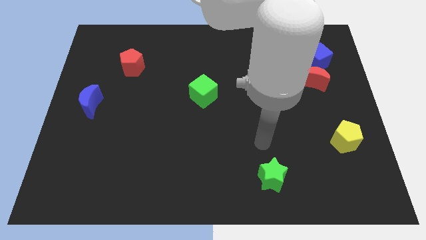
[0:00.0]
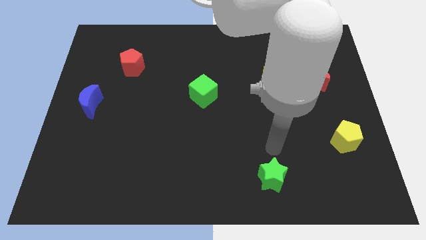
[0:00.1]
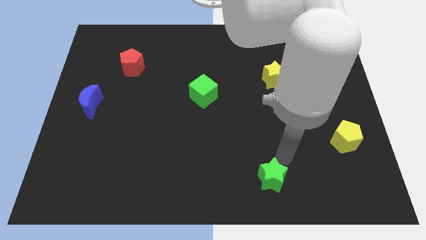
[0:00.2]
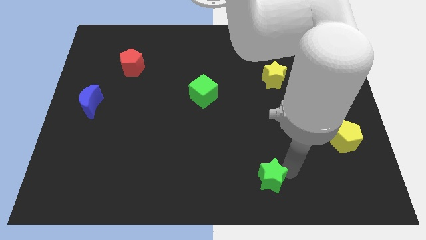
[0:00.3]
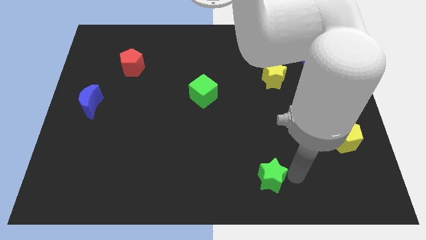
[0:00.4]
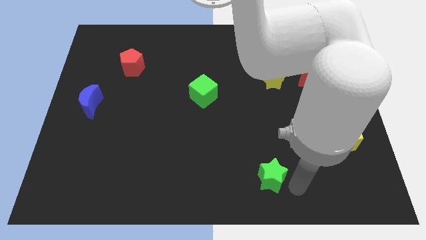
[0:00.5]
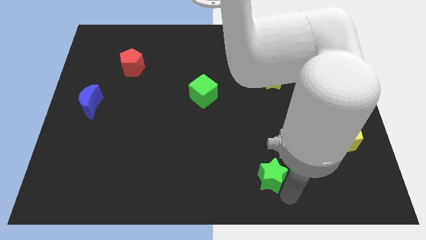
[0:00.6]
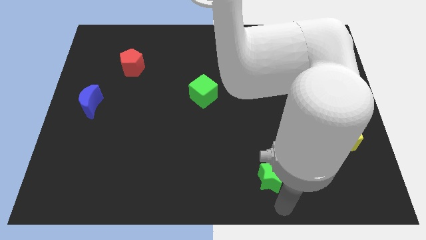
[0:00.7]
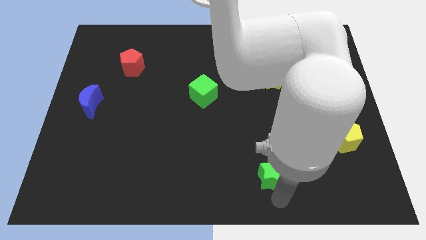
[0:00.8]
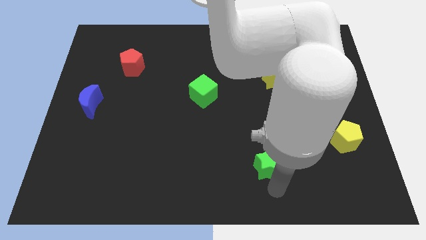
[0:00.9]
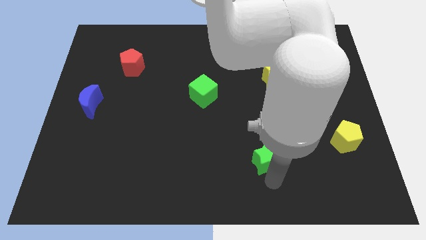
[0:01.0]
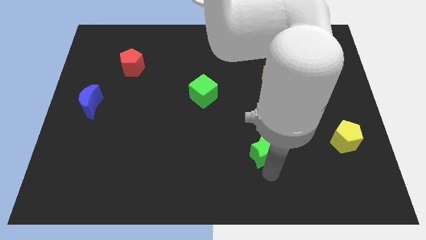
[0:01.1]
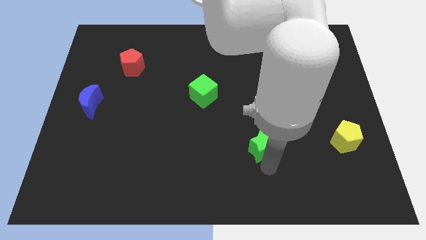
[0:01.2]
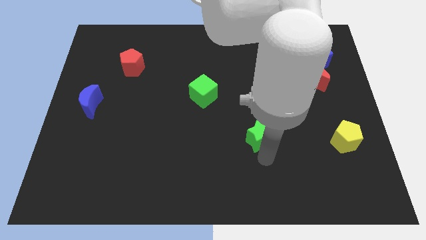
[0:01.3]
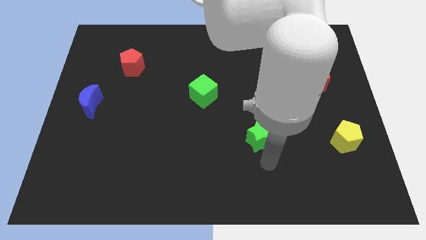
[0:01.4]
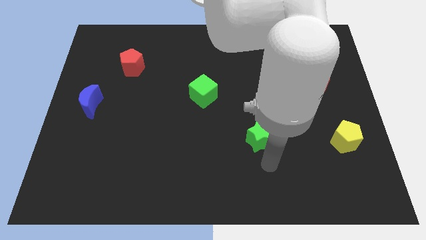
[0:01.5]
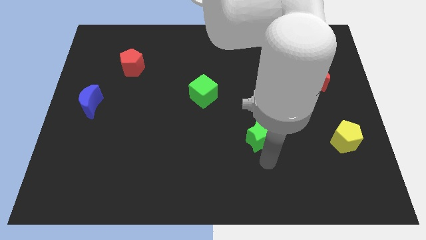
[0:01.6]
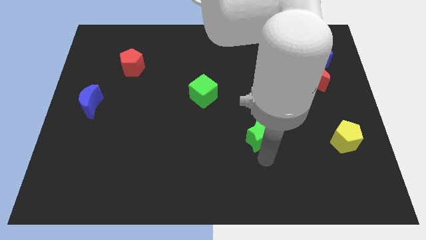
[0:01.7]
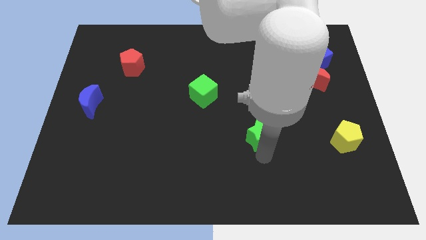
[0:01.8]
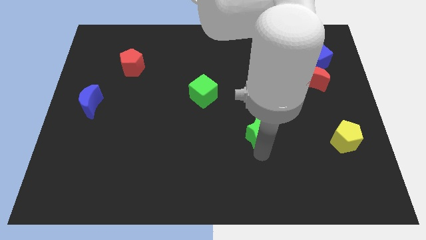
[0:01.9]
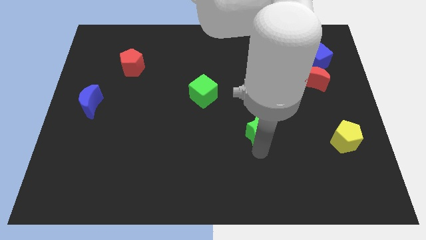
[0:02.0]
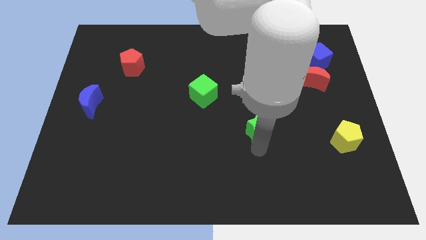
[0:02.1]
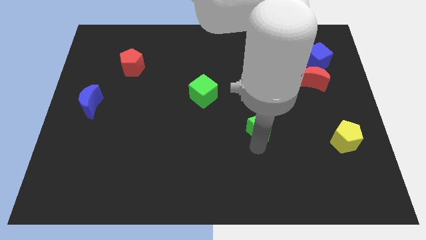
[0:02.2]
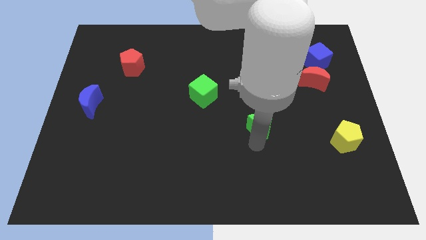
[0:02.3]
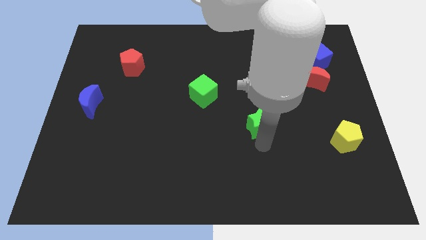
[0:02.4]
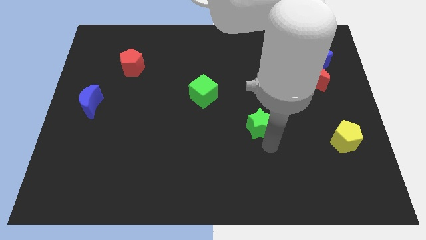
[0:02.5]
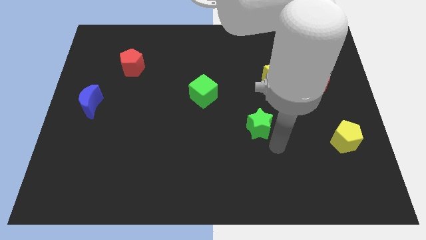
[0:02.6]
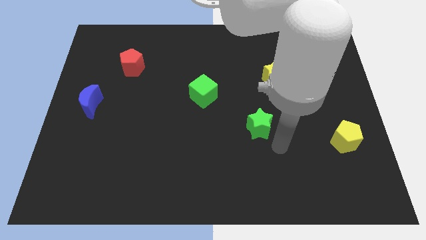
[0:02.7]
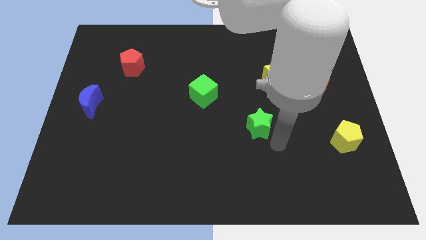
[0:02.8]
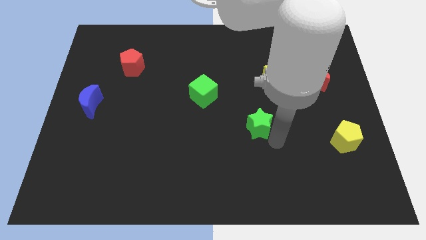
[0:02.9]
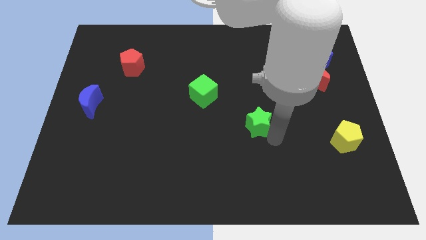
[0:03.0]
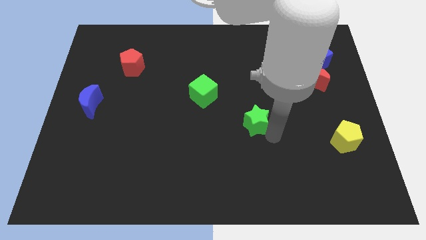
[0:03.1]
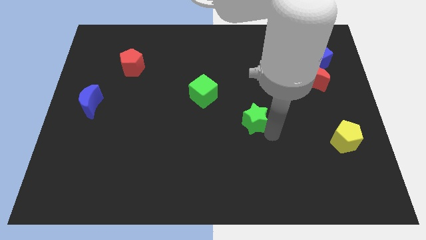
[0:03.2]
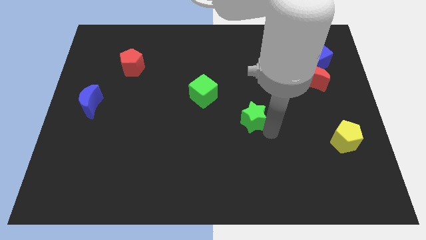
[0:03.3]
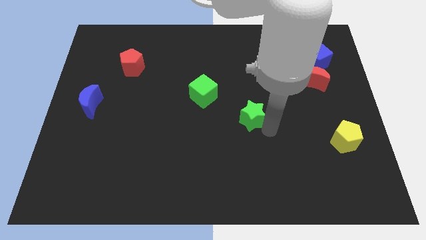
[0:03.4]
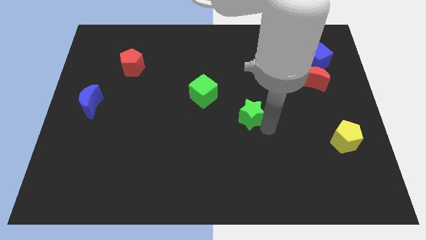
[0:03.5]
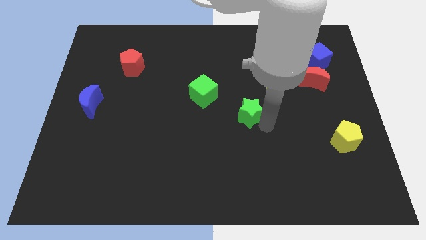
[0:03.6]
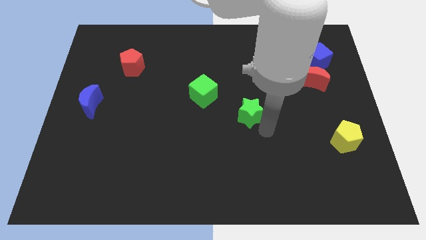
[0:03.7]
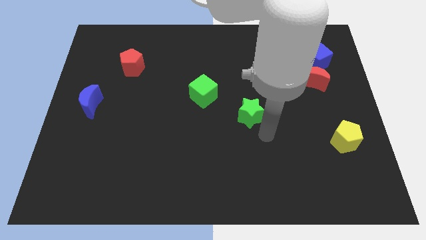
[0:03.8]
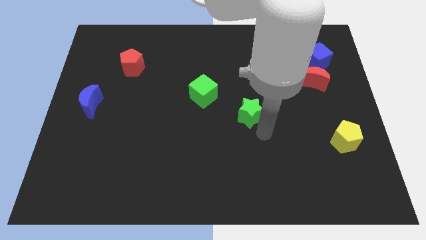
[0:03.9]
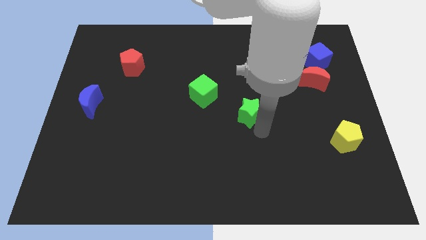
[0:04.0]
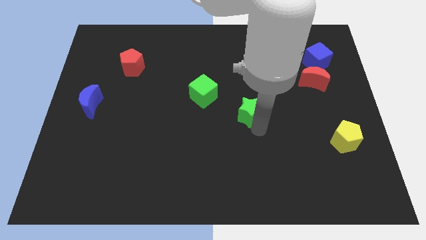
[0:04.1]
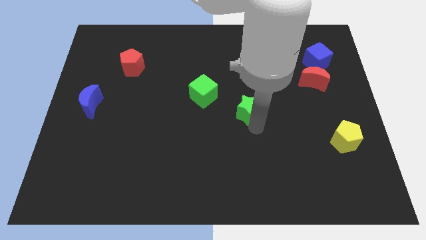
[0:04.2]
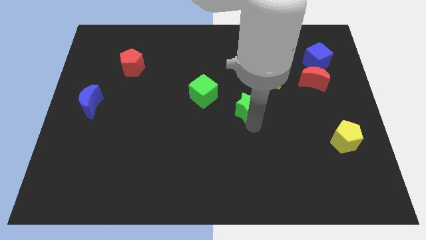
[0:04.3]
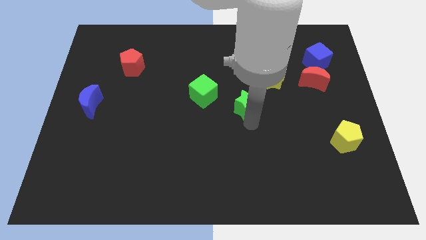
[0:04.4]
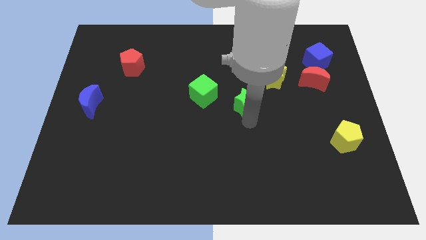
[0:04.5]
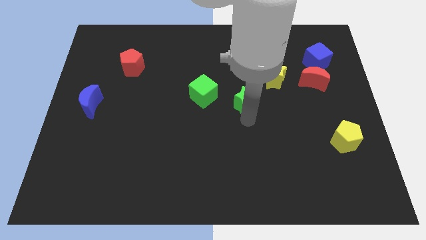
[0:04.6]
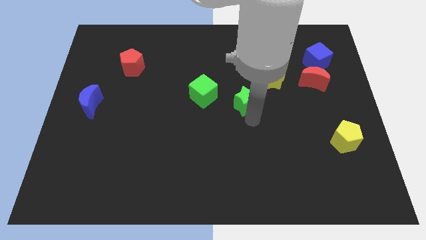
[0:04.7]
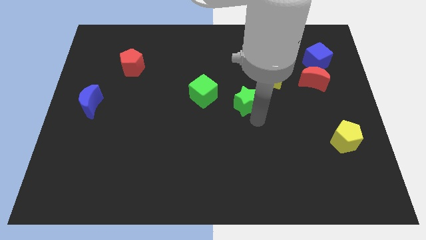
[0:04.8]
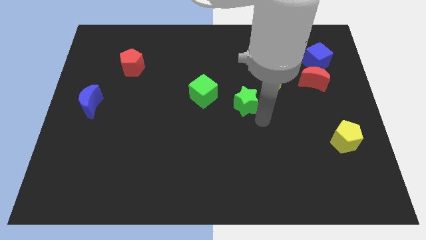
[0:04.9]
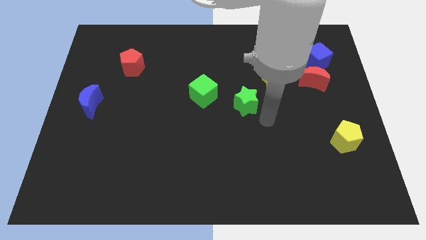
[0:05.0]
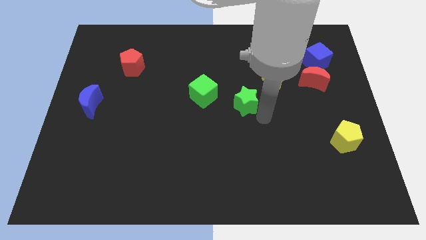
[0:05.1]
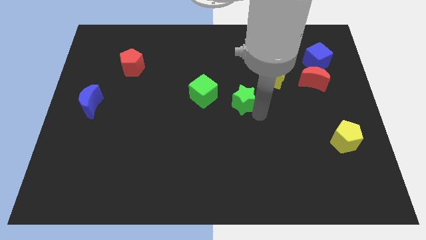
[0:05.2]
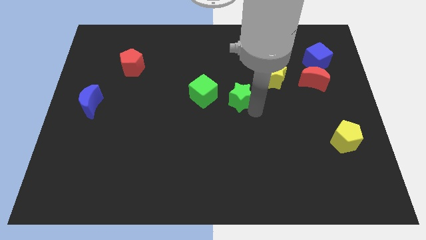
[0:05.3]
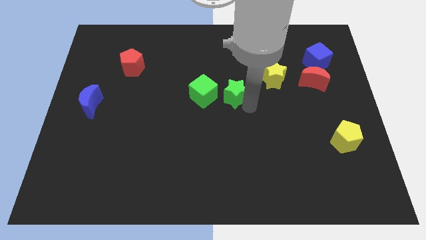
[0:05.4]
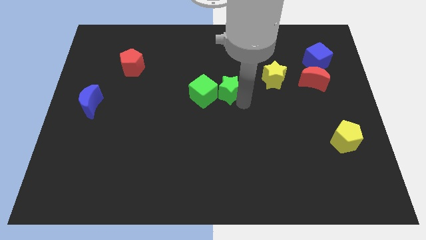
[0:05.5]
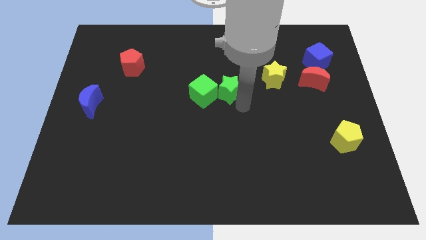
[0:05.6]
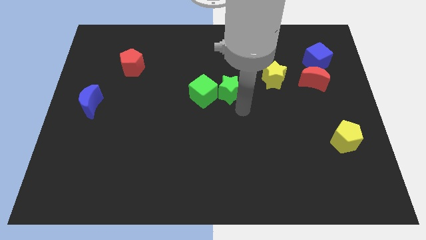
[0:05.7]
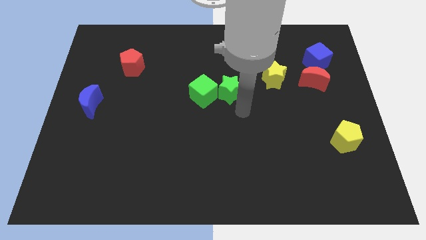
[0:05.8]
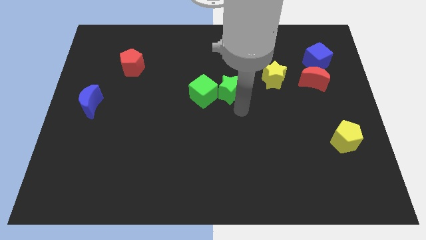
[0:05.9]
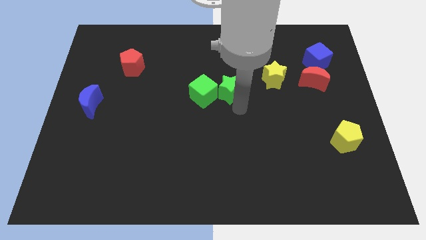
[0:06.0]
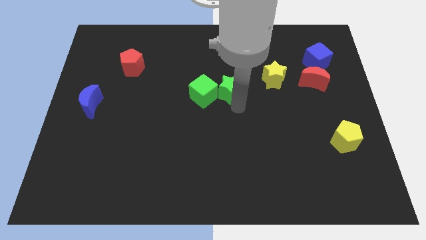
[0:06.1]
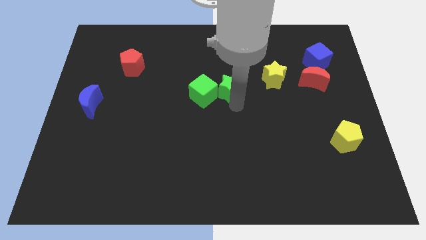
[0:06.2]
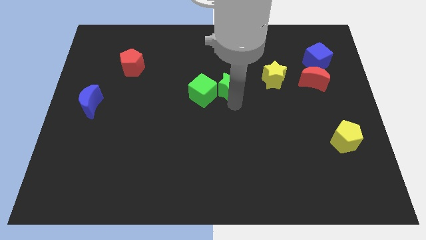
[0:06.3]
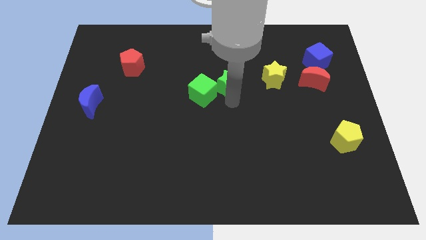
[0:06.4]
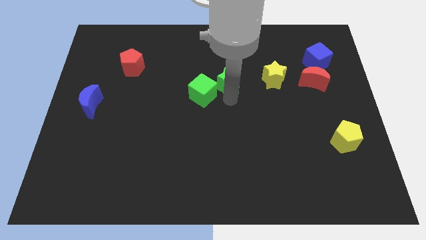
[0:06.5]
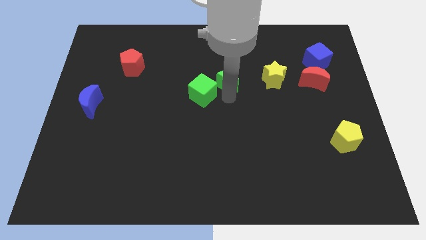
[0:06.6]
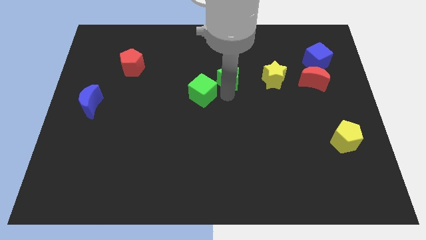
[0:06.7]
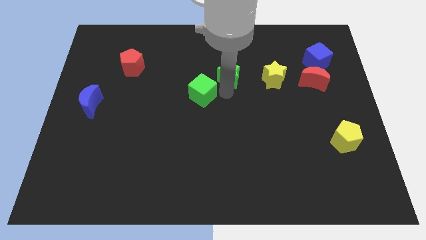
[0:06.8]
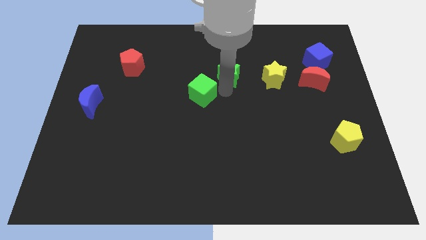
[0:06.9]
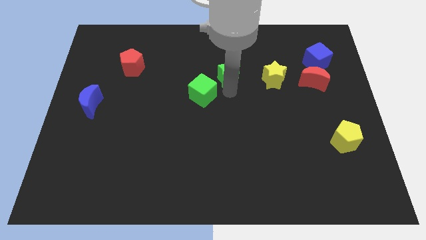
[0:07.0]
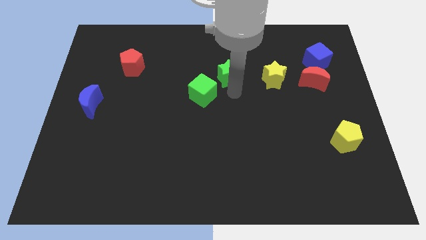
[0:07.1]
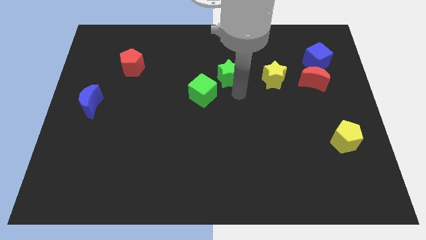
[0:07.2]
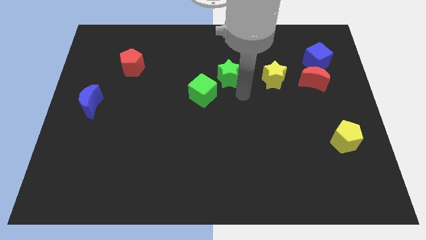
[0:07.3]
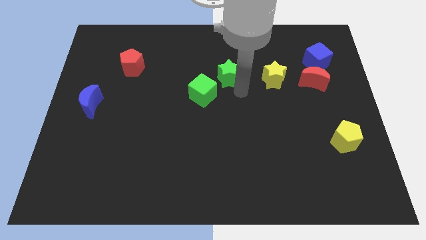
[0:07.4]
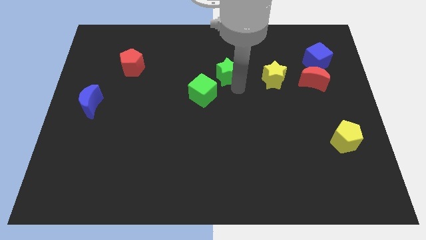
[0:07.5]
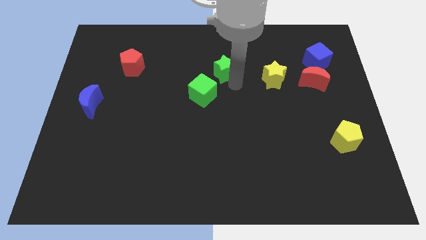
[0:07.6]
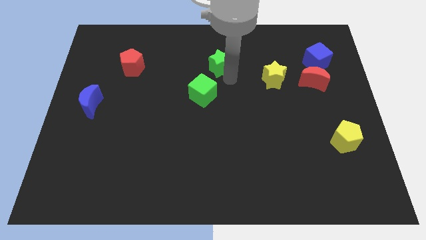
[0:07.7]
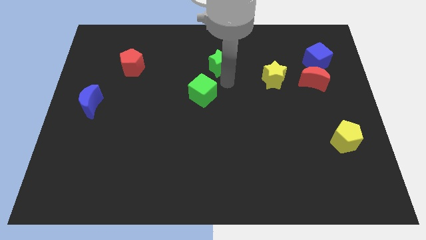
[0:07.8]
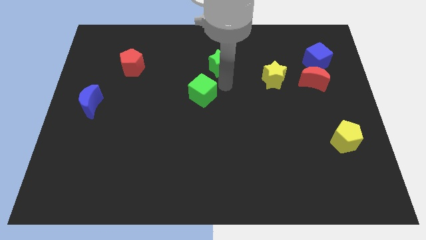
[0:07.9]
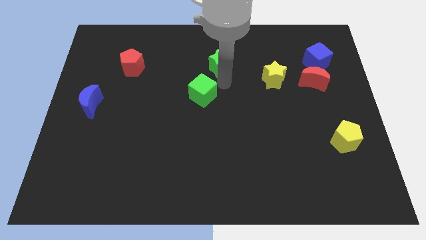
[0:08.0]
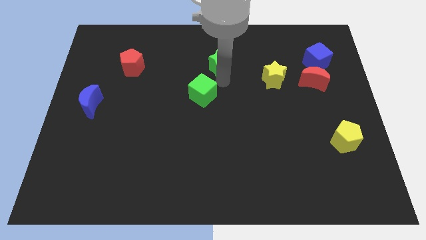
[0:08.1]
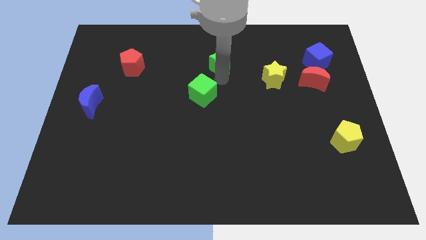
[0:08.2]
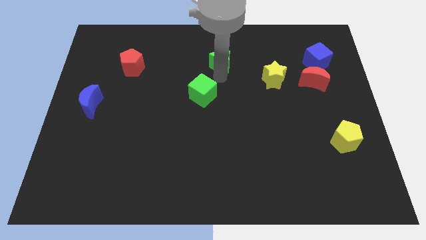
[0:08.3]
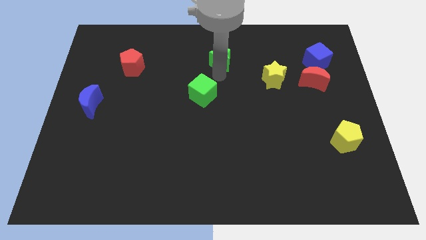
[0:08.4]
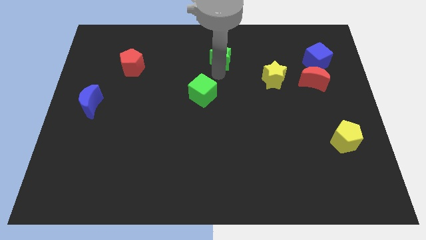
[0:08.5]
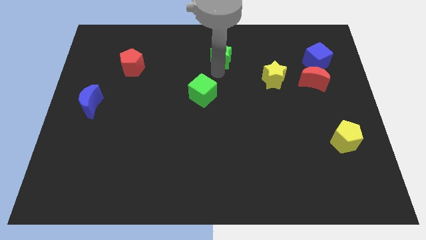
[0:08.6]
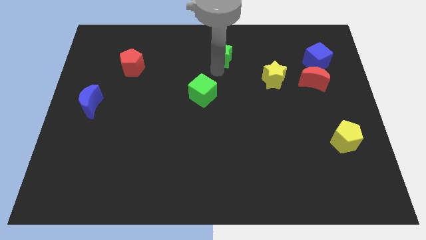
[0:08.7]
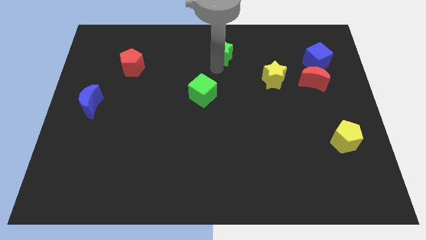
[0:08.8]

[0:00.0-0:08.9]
put the green star to the towards your base
